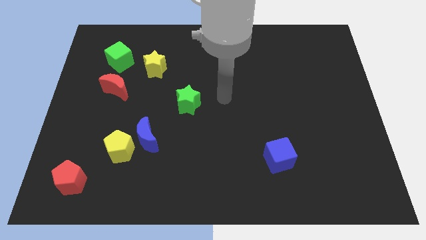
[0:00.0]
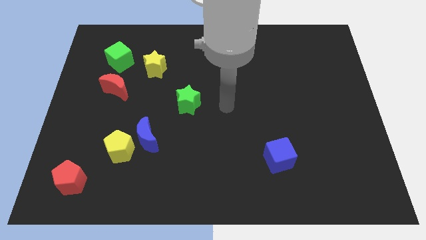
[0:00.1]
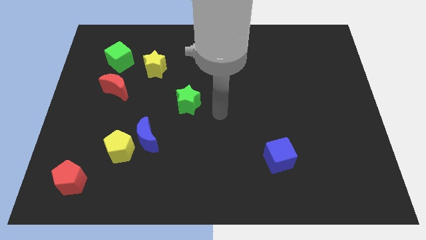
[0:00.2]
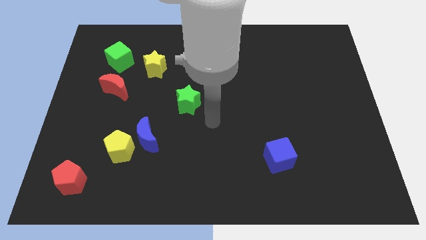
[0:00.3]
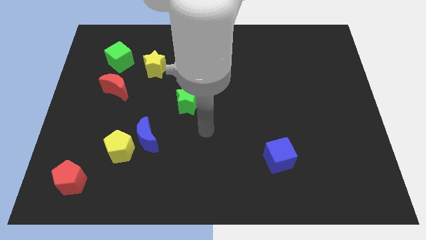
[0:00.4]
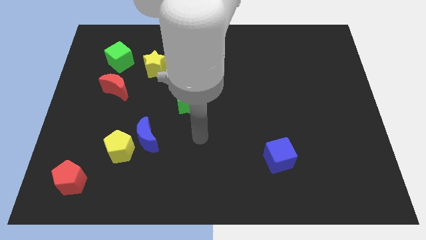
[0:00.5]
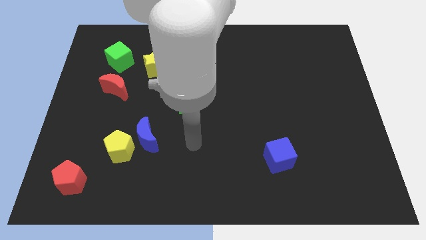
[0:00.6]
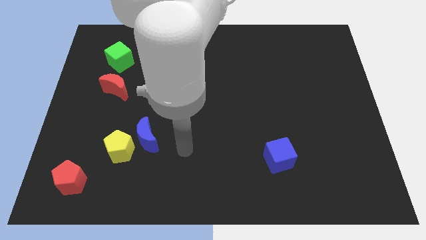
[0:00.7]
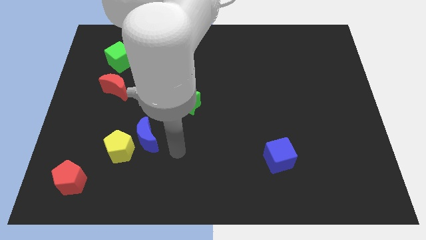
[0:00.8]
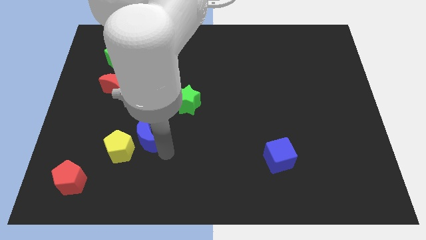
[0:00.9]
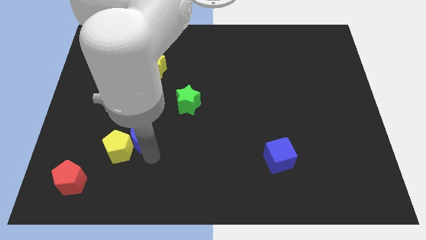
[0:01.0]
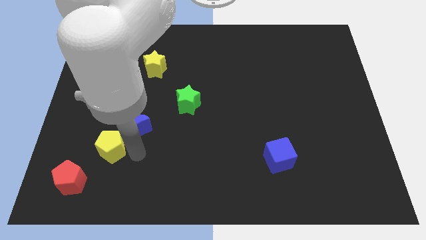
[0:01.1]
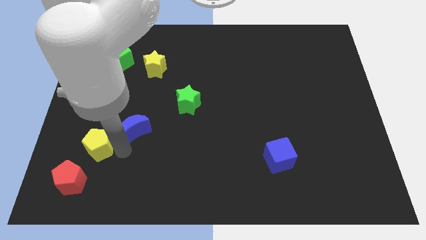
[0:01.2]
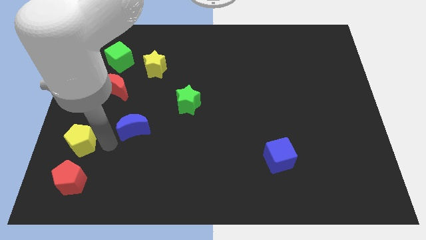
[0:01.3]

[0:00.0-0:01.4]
separate the blue moon from the yellow pentagon

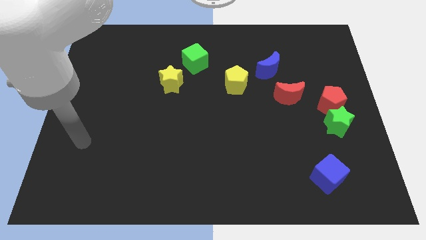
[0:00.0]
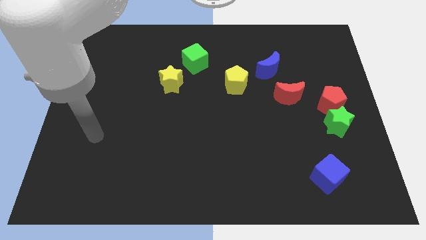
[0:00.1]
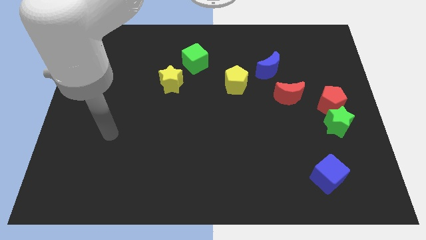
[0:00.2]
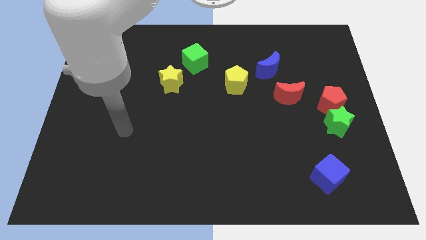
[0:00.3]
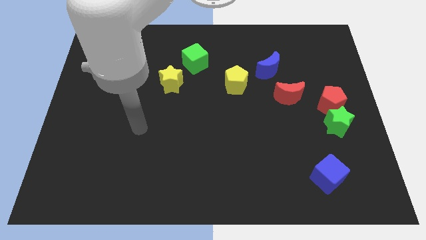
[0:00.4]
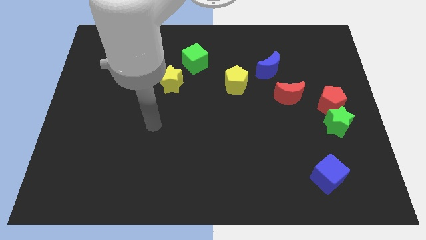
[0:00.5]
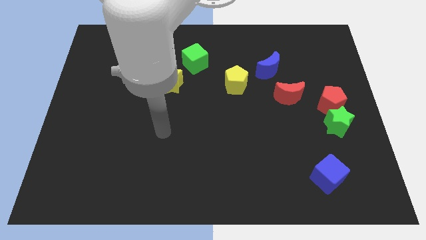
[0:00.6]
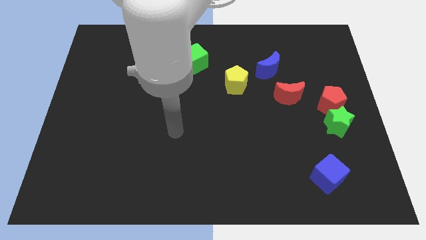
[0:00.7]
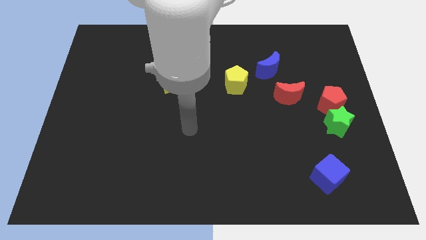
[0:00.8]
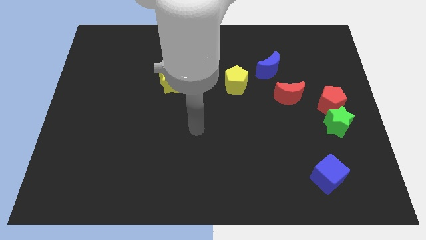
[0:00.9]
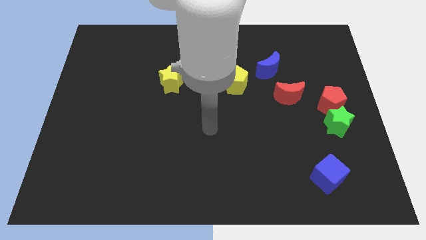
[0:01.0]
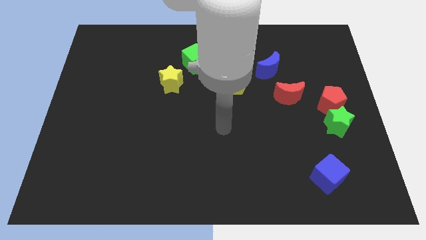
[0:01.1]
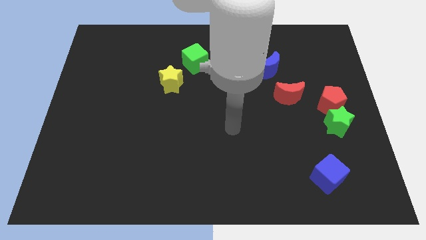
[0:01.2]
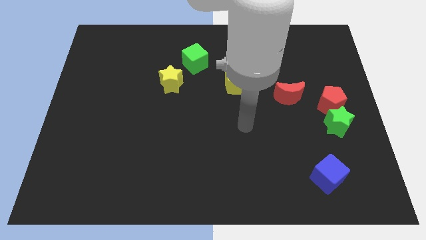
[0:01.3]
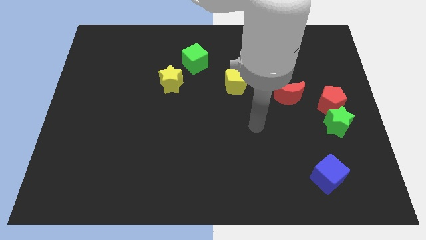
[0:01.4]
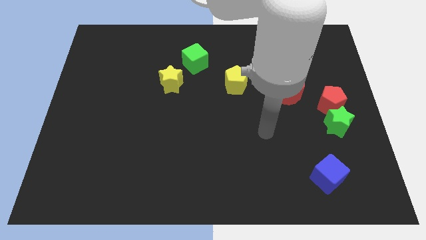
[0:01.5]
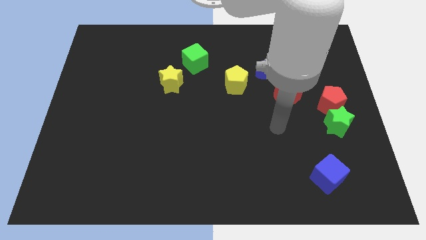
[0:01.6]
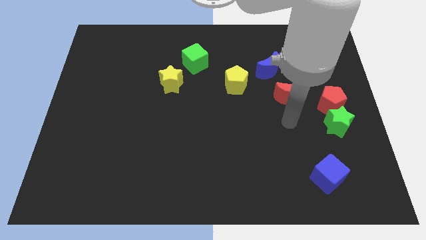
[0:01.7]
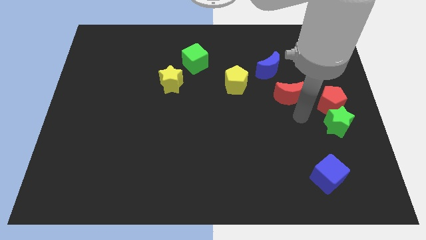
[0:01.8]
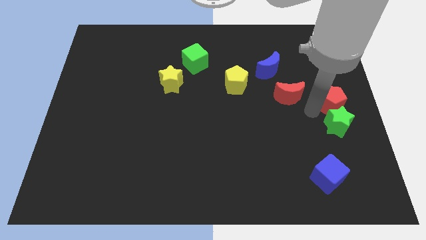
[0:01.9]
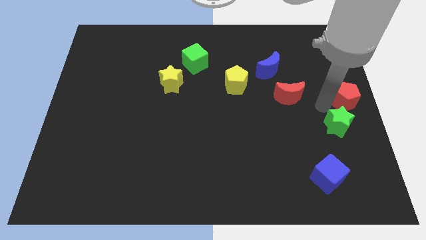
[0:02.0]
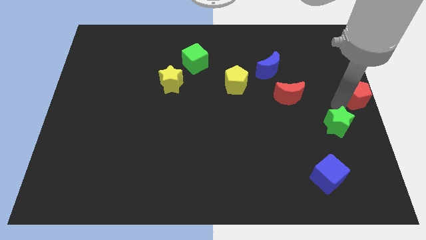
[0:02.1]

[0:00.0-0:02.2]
pull the green star apart from the red pentagon

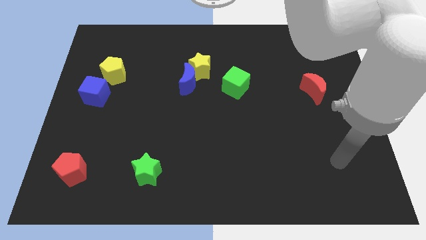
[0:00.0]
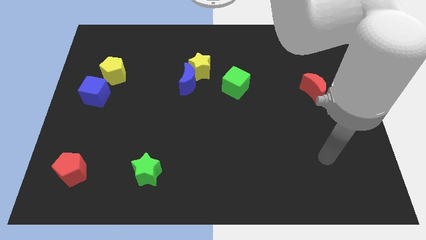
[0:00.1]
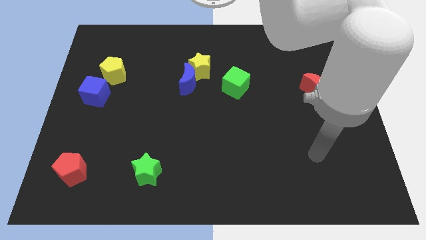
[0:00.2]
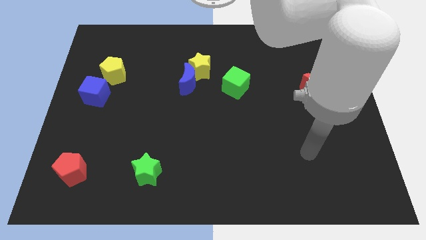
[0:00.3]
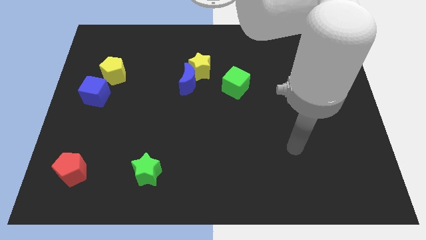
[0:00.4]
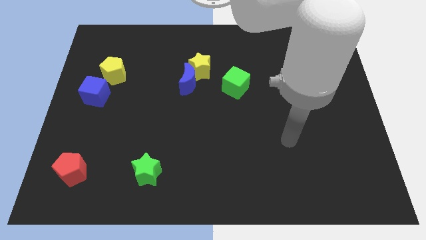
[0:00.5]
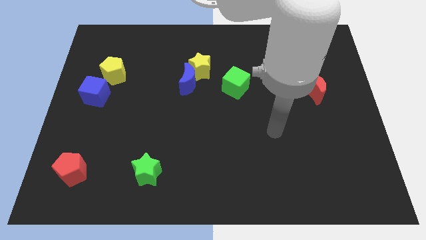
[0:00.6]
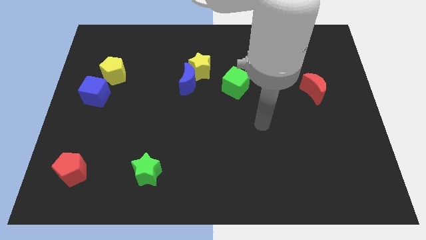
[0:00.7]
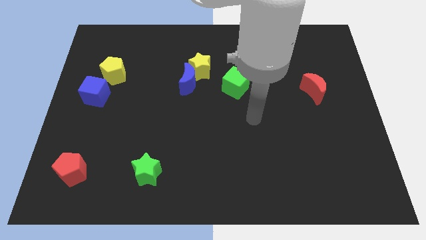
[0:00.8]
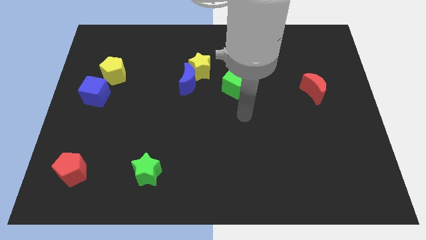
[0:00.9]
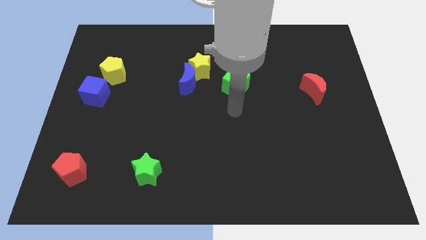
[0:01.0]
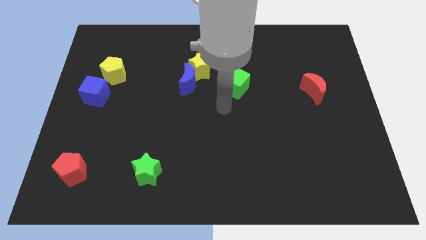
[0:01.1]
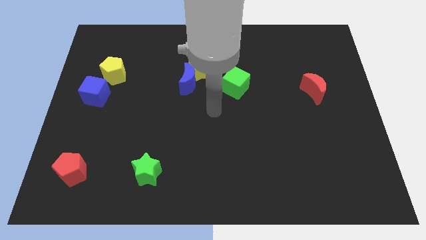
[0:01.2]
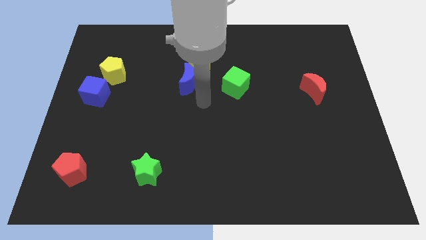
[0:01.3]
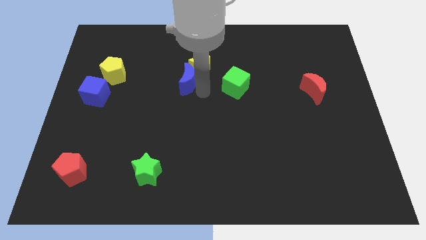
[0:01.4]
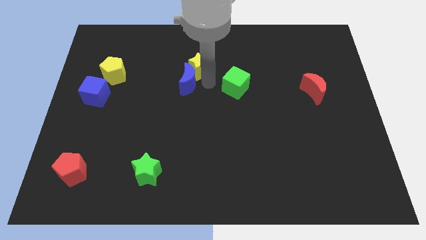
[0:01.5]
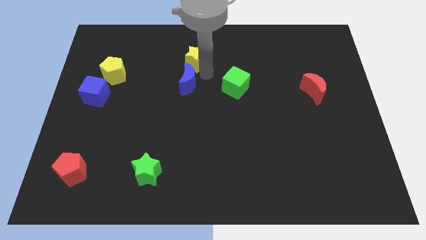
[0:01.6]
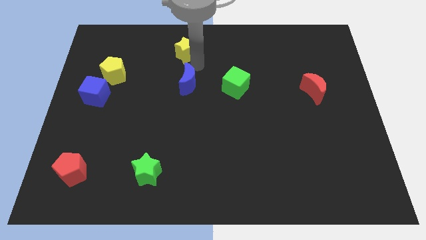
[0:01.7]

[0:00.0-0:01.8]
move the blue moon away from the yellow star

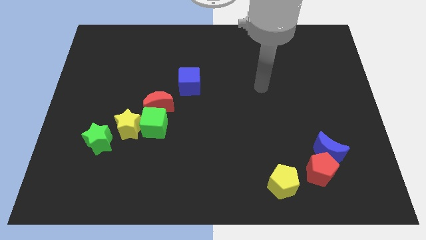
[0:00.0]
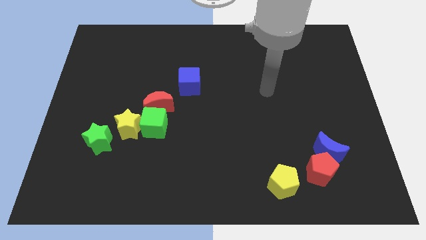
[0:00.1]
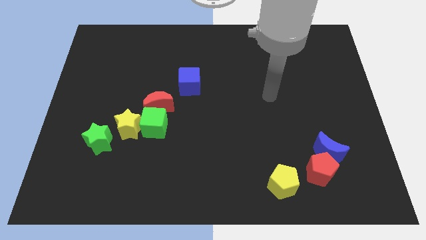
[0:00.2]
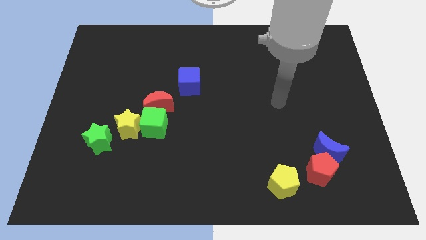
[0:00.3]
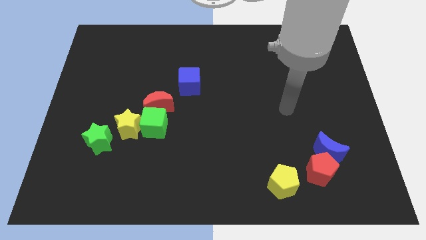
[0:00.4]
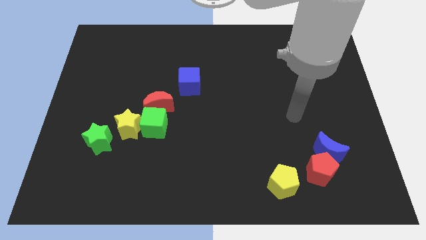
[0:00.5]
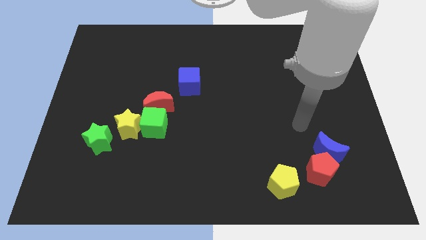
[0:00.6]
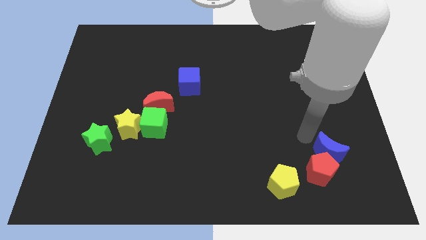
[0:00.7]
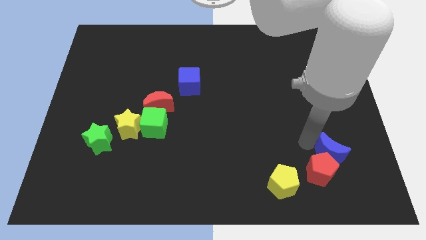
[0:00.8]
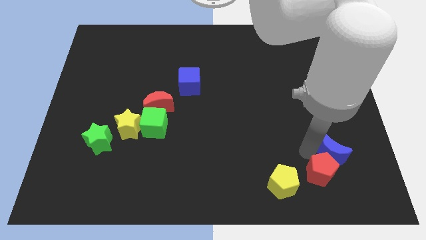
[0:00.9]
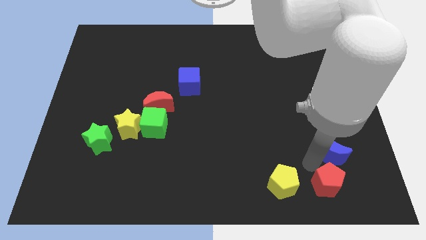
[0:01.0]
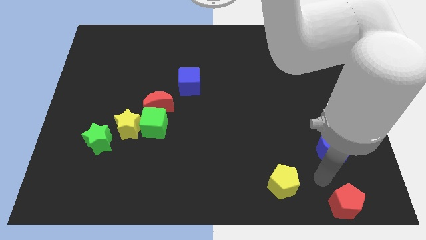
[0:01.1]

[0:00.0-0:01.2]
pull the blue moon apart from the red pentagon

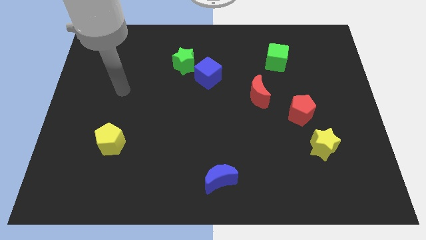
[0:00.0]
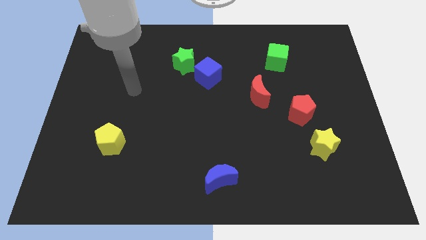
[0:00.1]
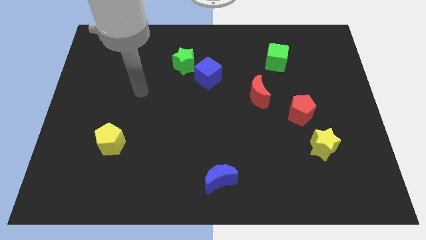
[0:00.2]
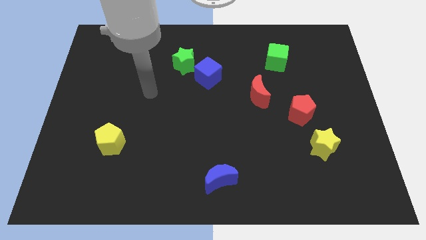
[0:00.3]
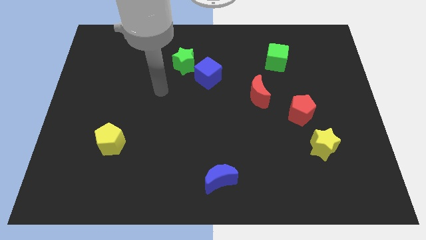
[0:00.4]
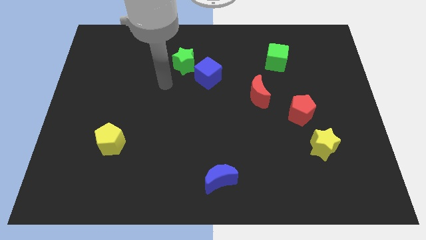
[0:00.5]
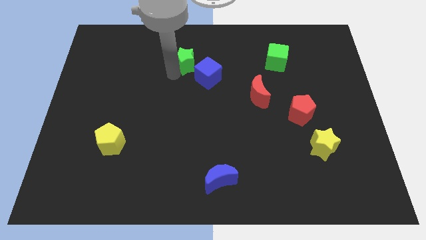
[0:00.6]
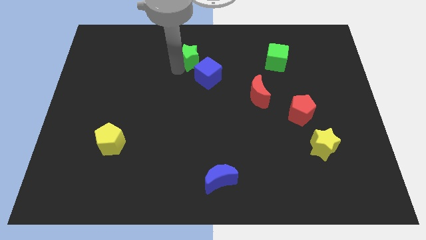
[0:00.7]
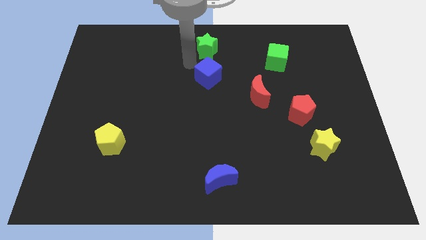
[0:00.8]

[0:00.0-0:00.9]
move the blue cube away from the green star

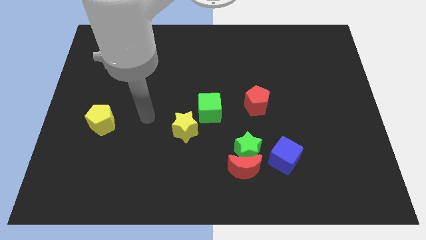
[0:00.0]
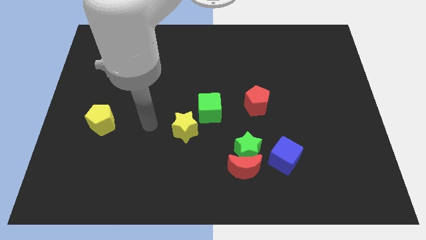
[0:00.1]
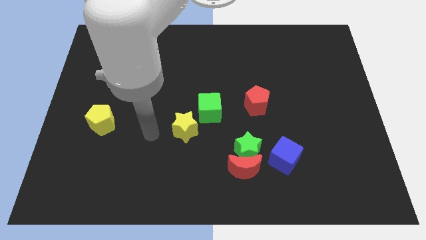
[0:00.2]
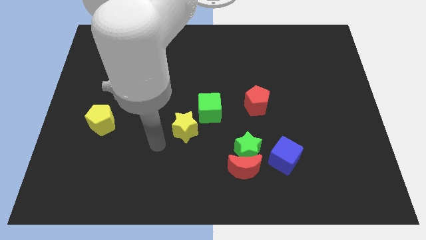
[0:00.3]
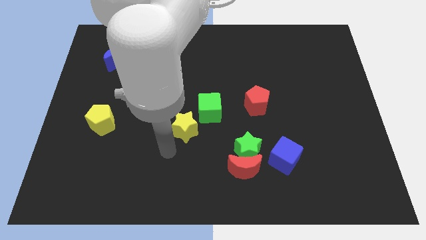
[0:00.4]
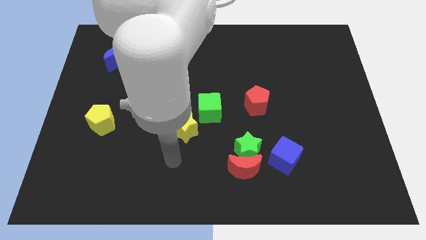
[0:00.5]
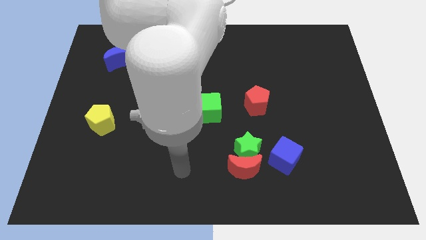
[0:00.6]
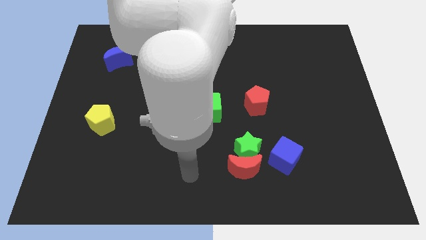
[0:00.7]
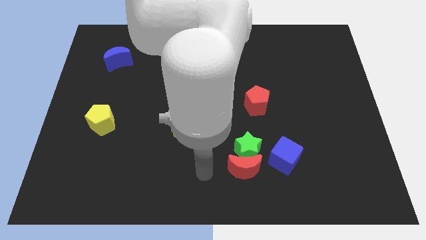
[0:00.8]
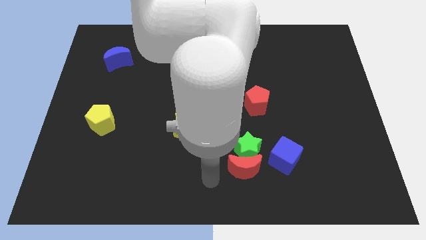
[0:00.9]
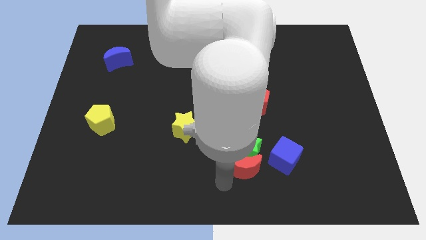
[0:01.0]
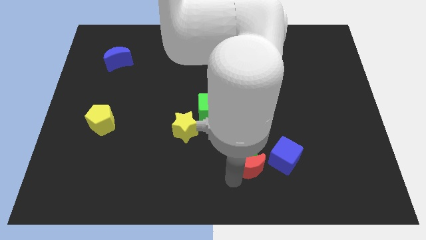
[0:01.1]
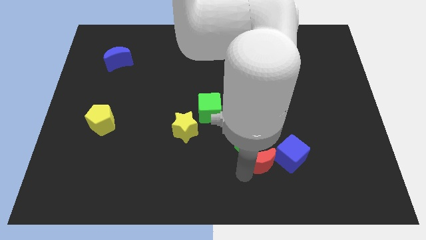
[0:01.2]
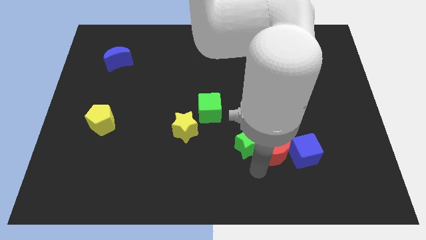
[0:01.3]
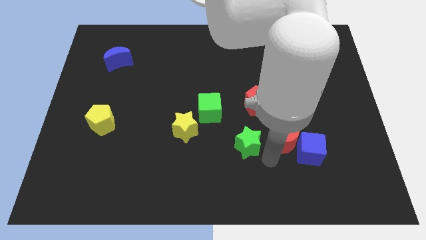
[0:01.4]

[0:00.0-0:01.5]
pull the green star apart from the red moon and blue cube

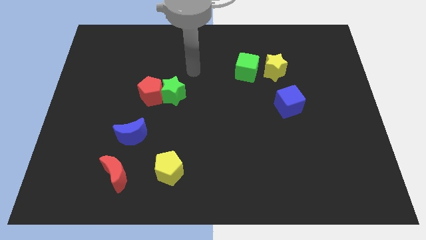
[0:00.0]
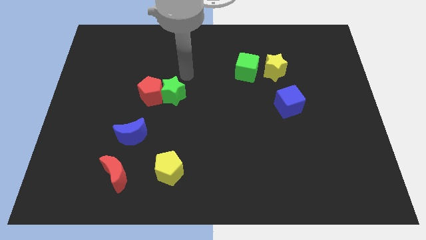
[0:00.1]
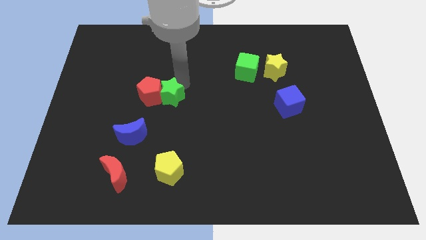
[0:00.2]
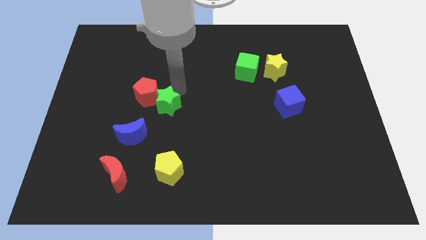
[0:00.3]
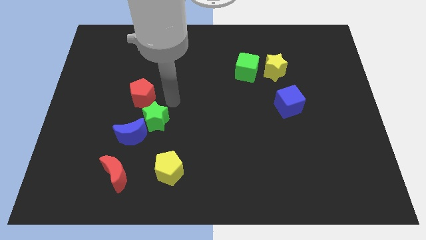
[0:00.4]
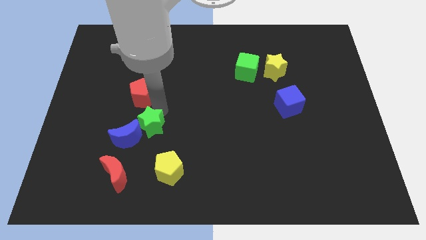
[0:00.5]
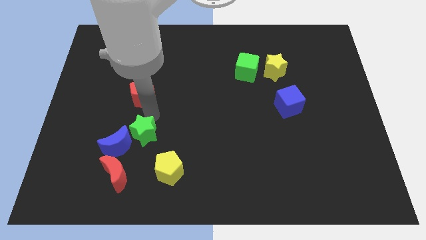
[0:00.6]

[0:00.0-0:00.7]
pull the red pentagon apart from the green star
